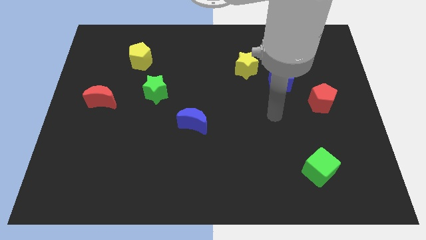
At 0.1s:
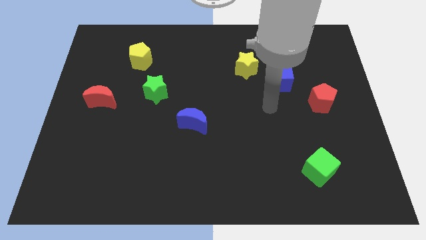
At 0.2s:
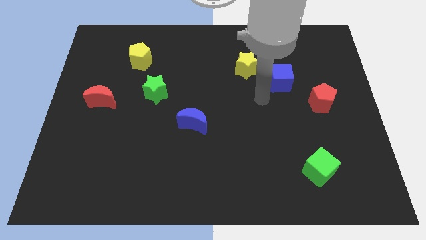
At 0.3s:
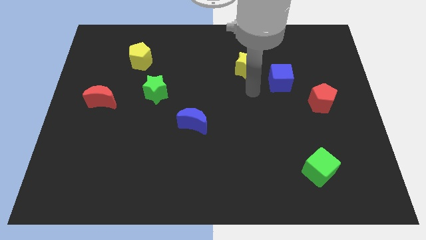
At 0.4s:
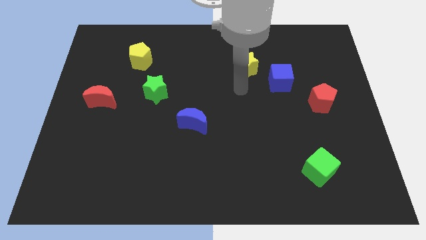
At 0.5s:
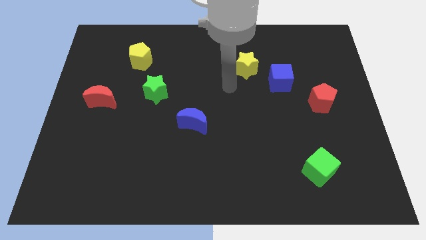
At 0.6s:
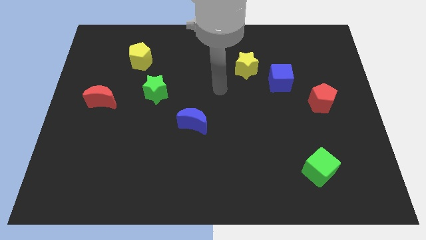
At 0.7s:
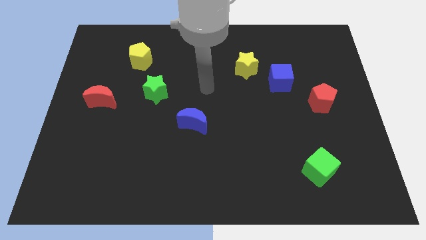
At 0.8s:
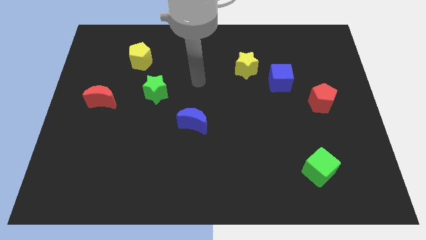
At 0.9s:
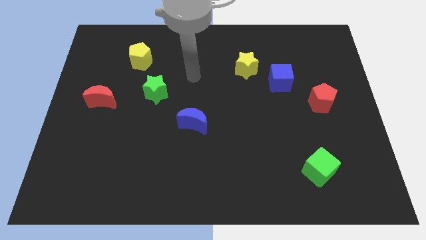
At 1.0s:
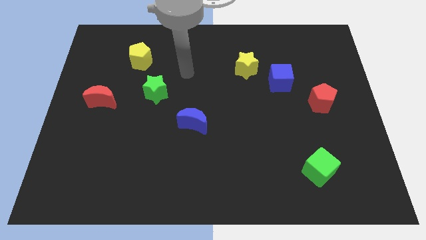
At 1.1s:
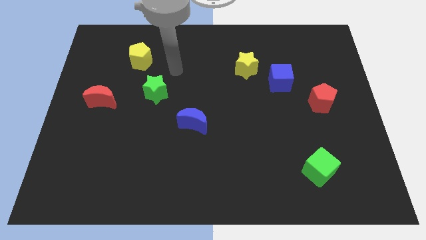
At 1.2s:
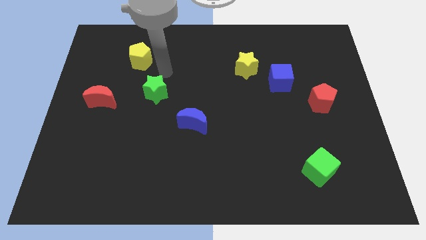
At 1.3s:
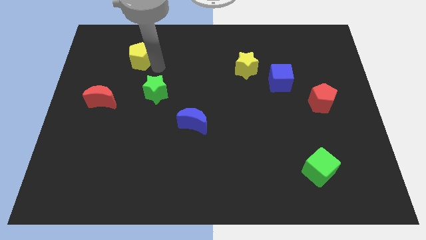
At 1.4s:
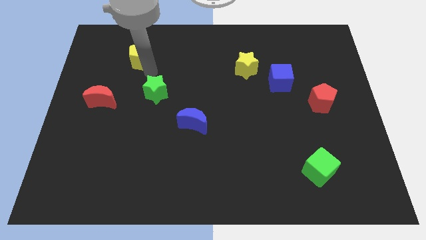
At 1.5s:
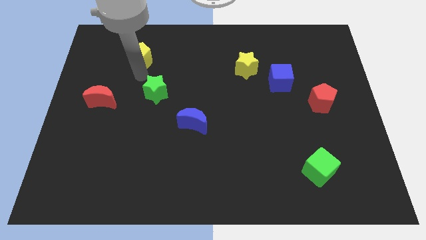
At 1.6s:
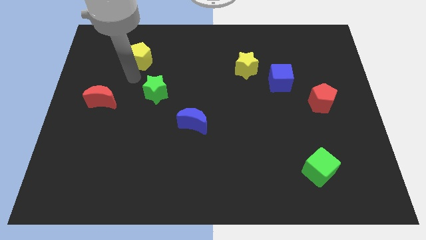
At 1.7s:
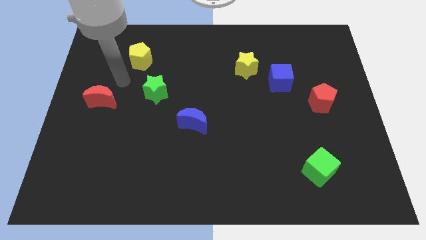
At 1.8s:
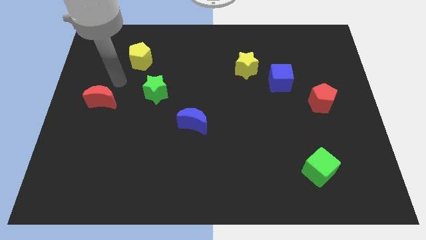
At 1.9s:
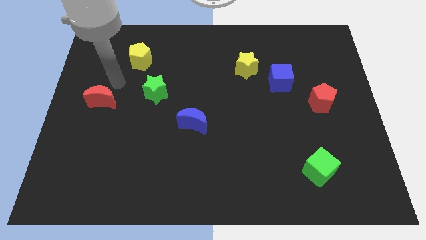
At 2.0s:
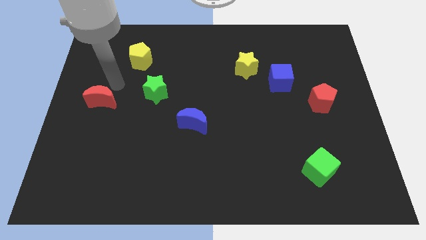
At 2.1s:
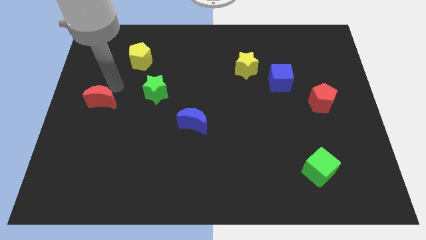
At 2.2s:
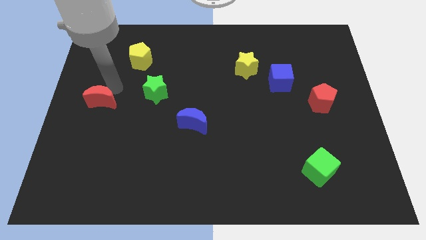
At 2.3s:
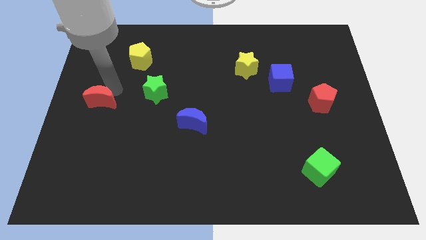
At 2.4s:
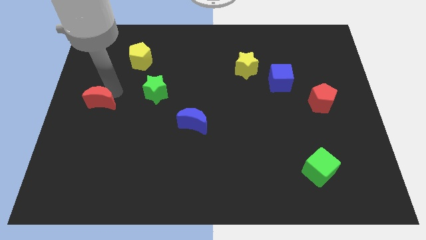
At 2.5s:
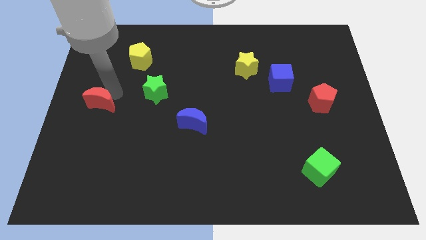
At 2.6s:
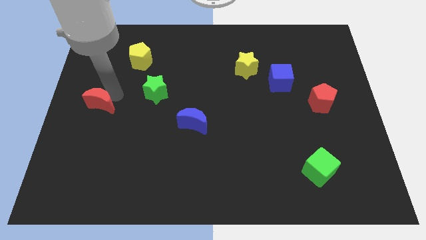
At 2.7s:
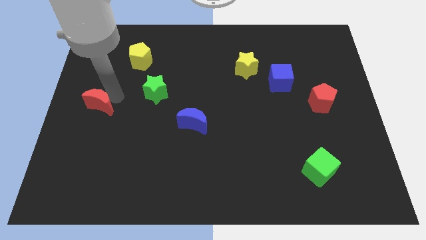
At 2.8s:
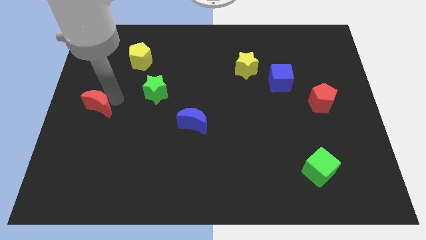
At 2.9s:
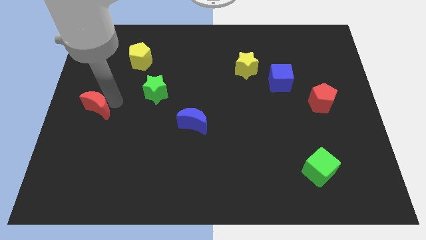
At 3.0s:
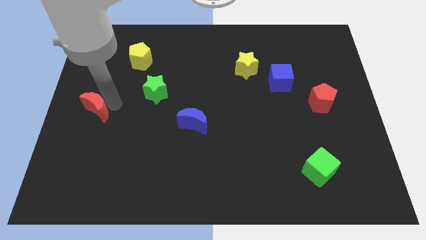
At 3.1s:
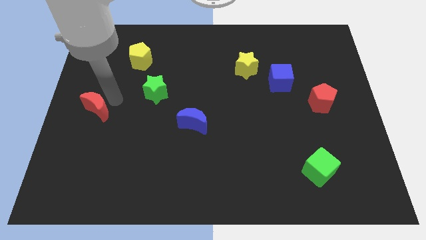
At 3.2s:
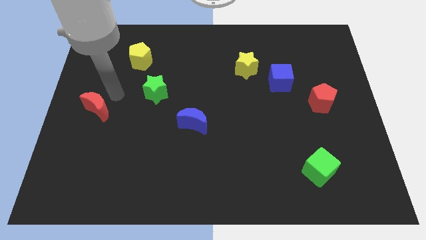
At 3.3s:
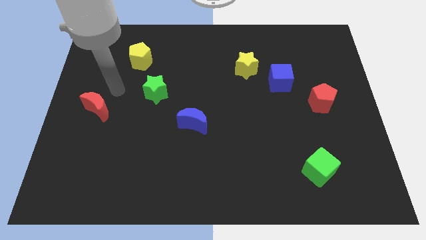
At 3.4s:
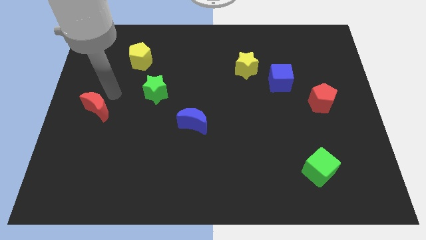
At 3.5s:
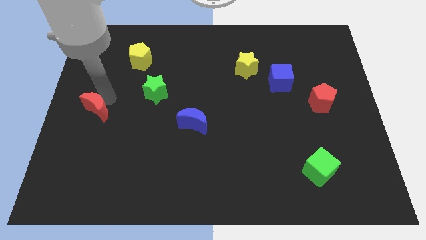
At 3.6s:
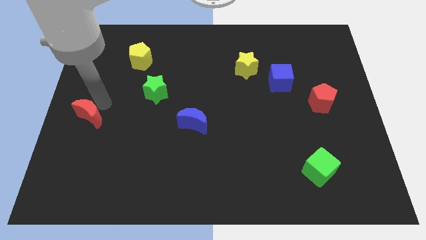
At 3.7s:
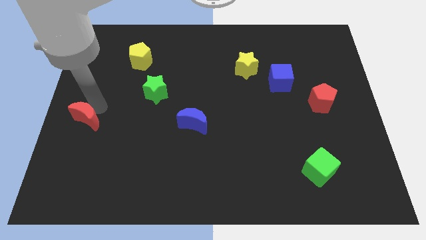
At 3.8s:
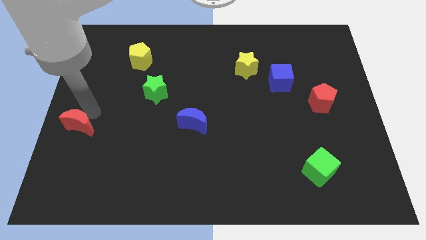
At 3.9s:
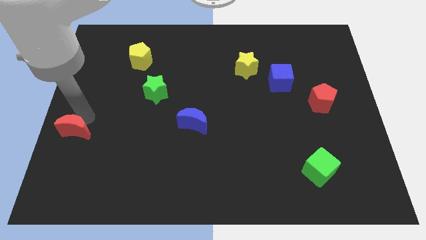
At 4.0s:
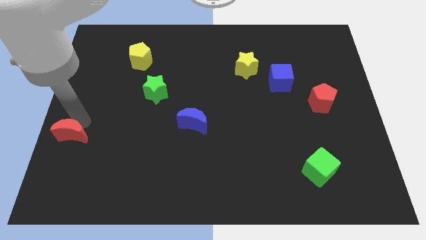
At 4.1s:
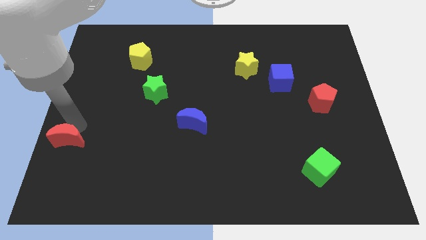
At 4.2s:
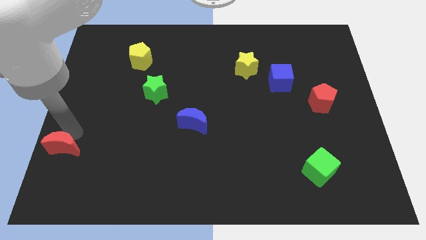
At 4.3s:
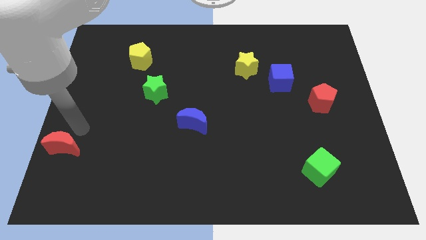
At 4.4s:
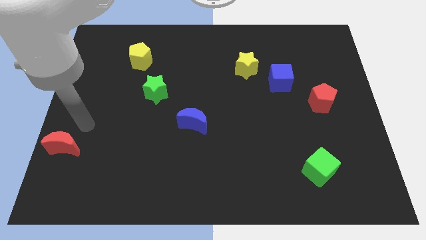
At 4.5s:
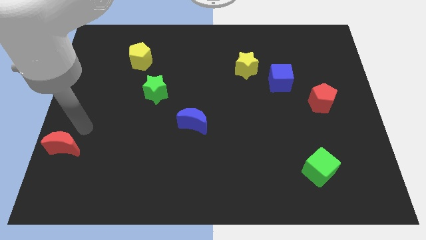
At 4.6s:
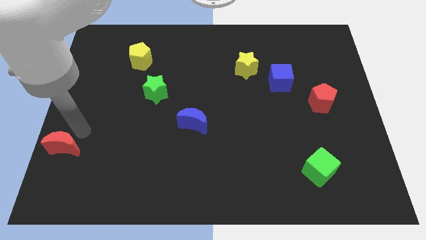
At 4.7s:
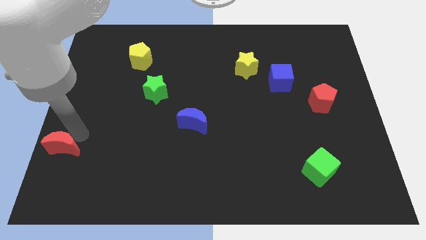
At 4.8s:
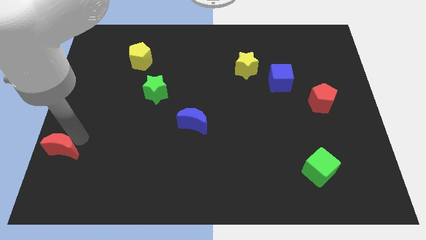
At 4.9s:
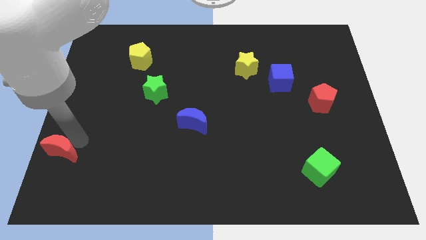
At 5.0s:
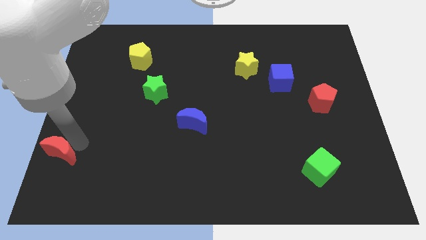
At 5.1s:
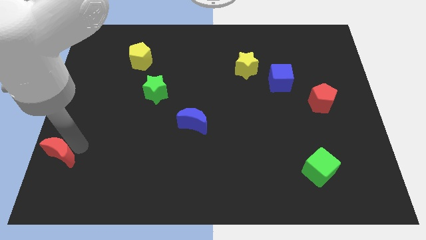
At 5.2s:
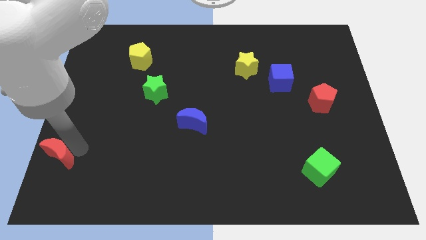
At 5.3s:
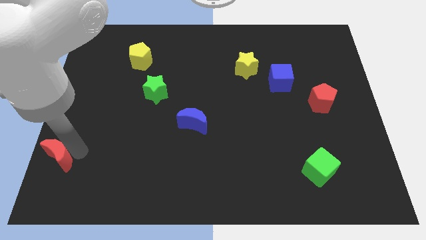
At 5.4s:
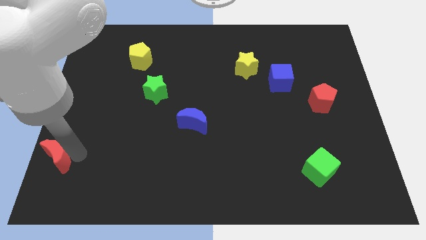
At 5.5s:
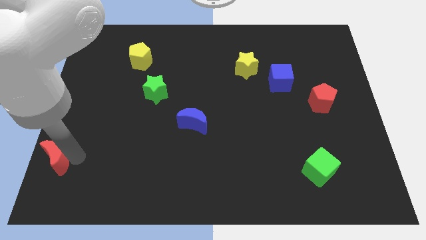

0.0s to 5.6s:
push the red moon to the bottom left of the board
